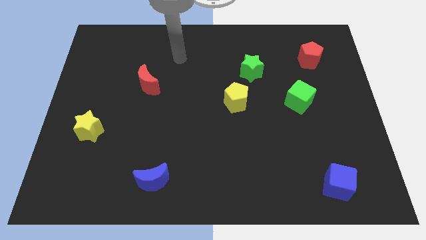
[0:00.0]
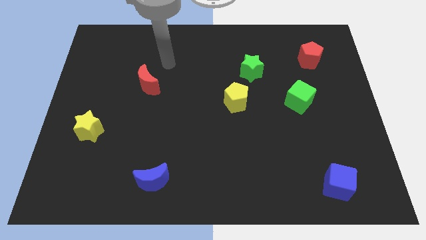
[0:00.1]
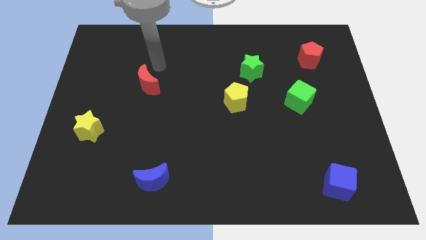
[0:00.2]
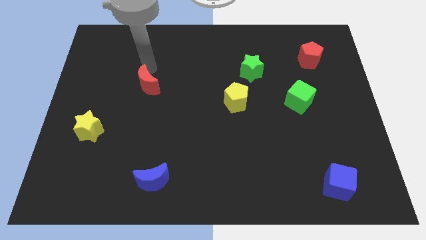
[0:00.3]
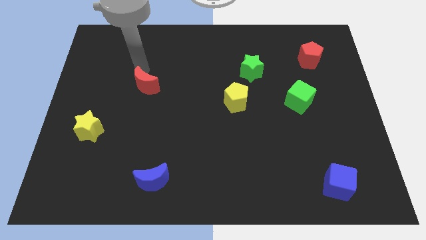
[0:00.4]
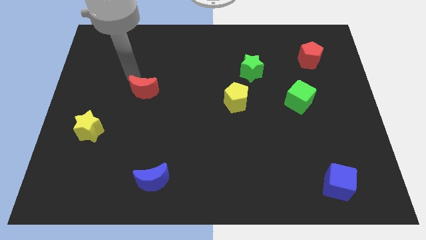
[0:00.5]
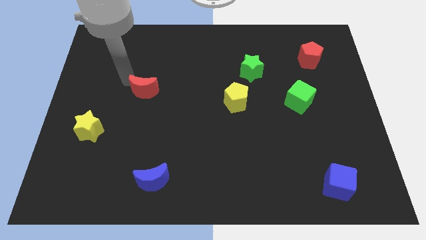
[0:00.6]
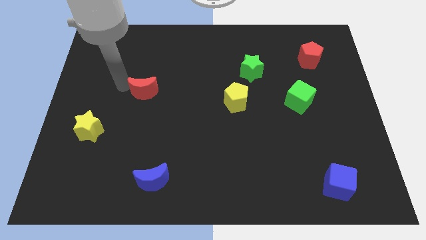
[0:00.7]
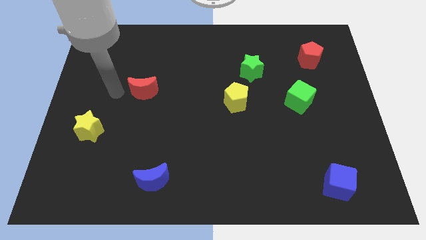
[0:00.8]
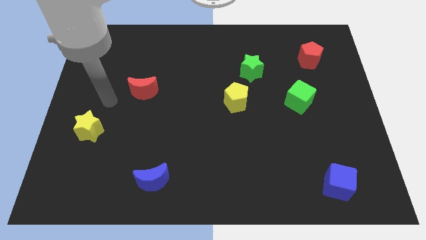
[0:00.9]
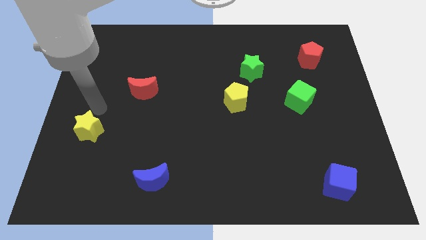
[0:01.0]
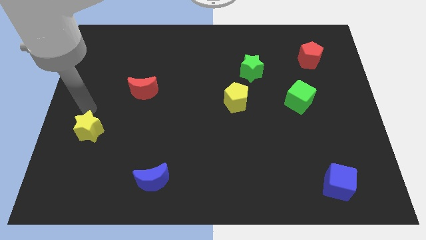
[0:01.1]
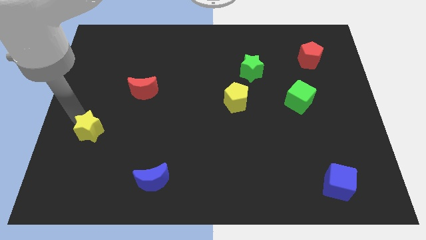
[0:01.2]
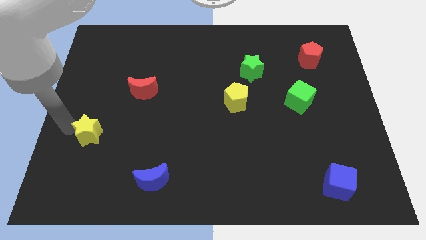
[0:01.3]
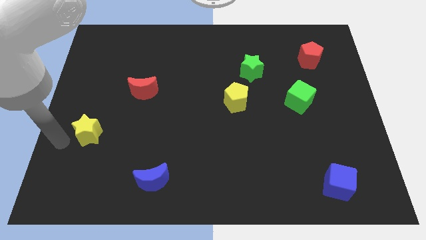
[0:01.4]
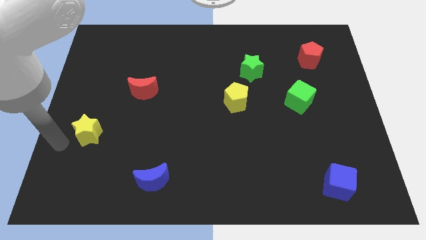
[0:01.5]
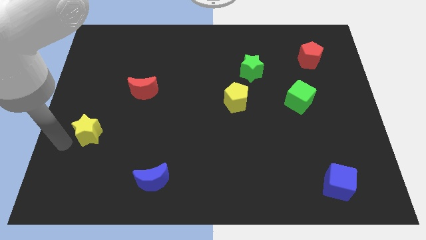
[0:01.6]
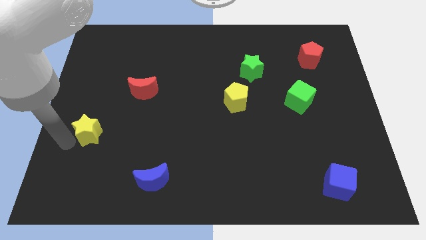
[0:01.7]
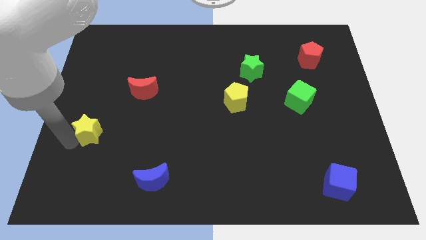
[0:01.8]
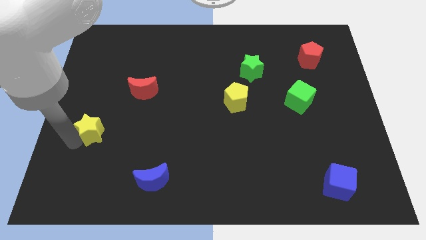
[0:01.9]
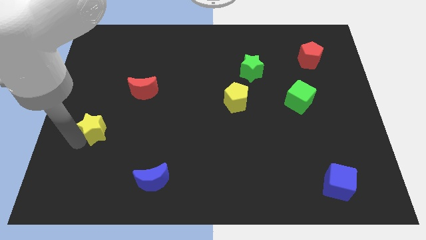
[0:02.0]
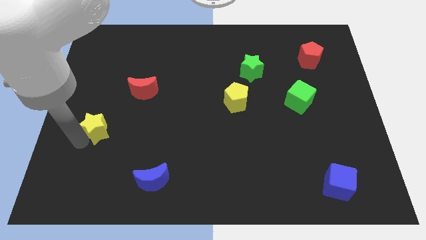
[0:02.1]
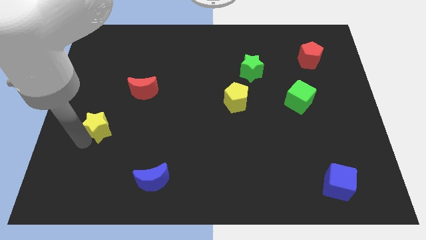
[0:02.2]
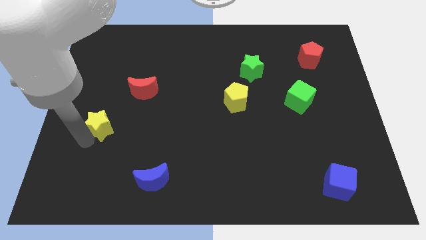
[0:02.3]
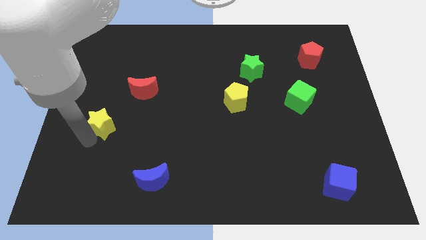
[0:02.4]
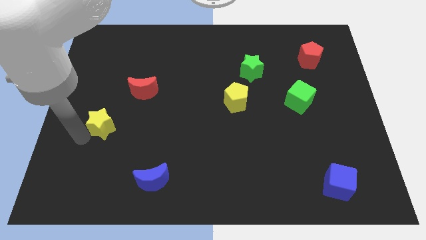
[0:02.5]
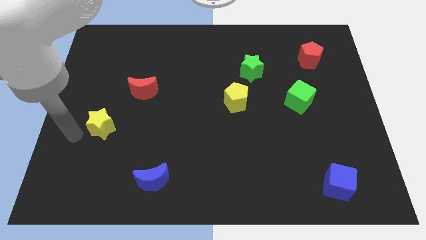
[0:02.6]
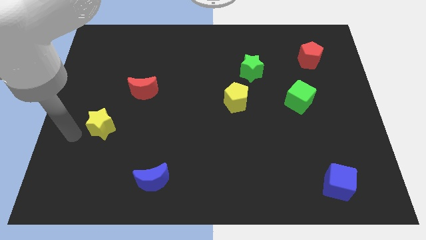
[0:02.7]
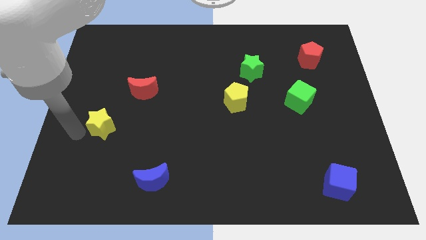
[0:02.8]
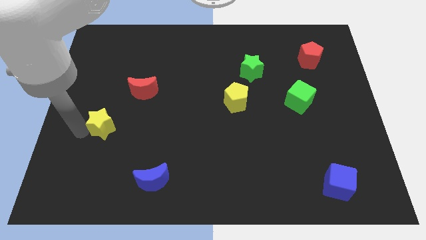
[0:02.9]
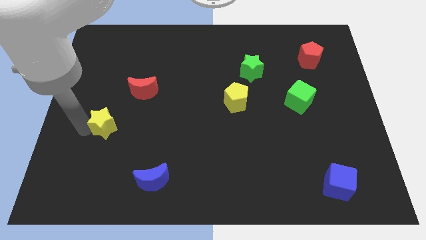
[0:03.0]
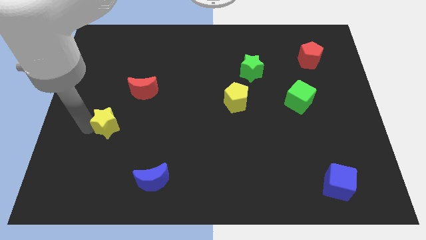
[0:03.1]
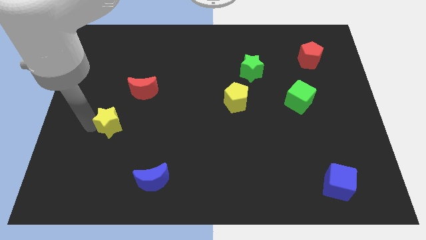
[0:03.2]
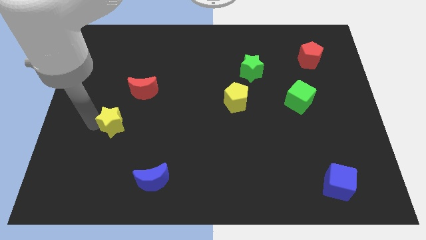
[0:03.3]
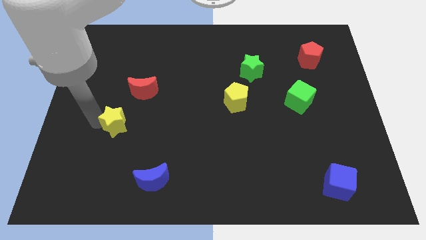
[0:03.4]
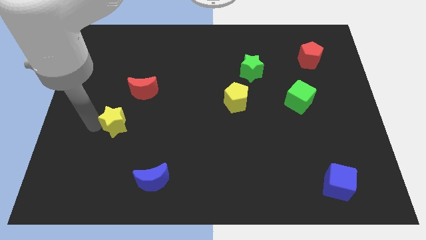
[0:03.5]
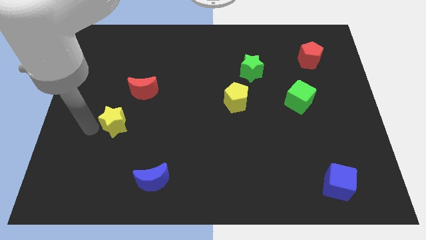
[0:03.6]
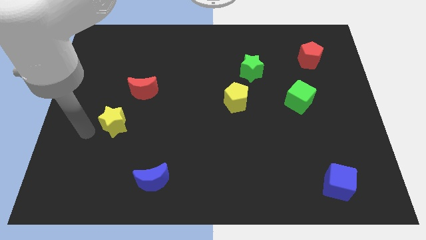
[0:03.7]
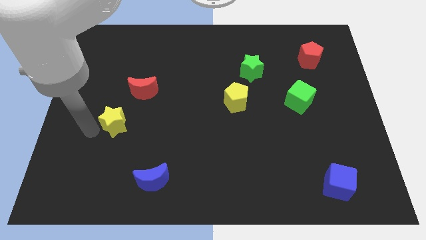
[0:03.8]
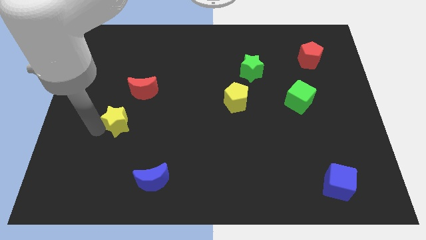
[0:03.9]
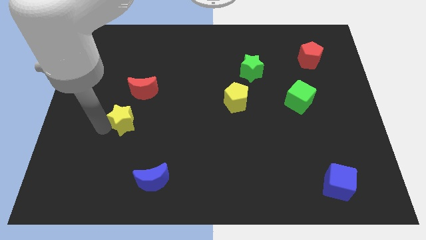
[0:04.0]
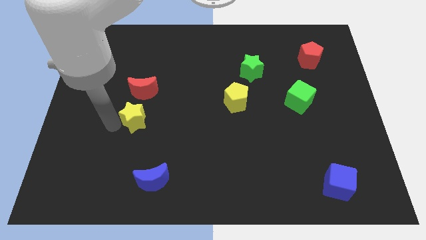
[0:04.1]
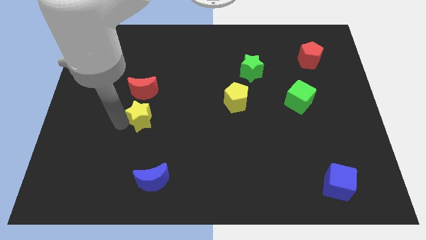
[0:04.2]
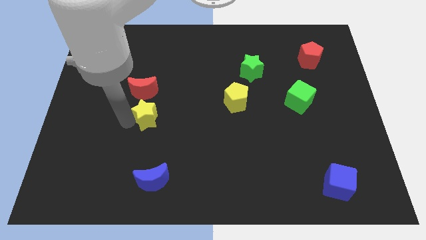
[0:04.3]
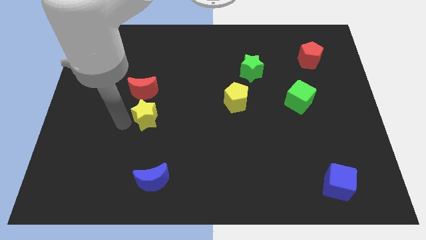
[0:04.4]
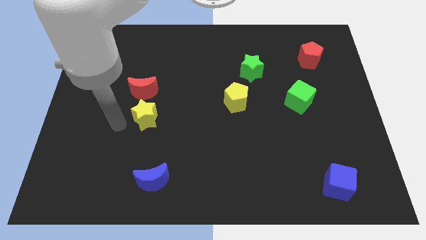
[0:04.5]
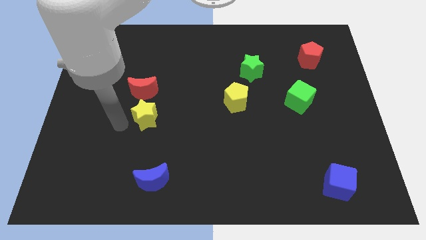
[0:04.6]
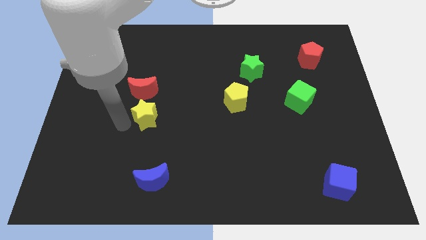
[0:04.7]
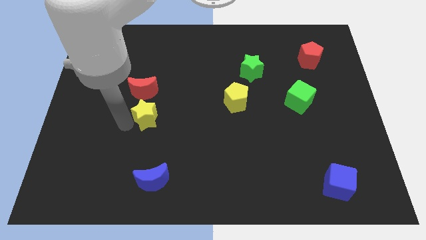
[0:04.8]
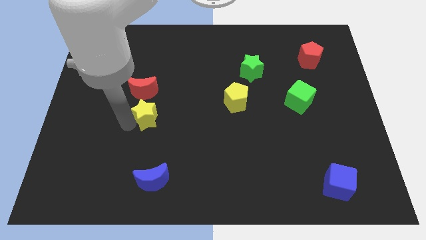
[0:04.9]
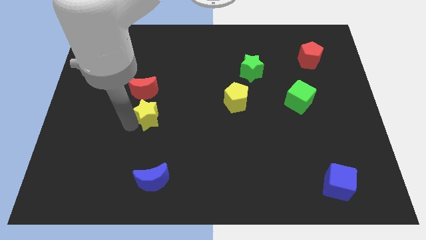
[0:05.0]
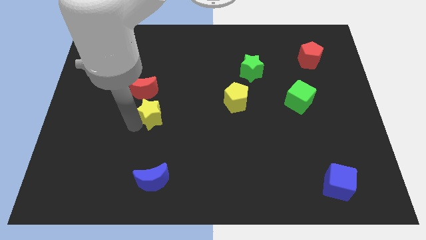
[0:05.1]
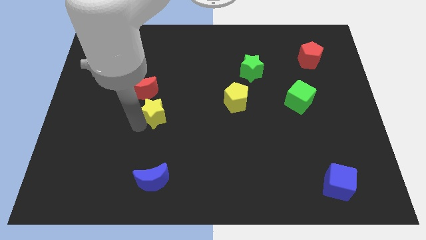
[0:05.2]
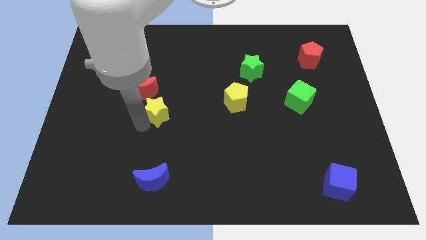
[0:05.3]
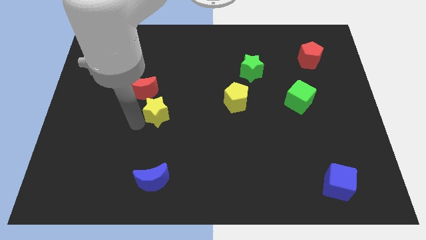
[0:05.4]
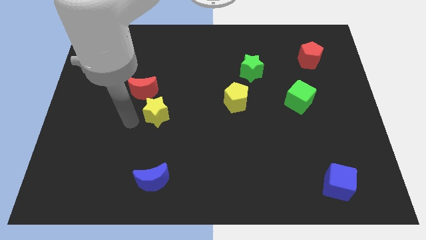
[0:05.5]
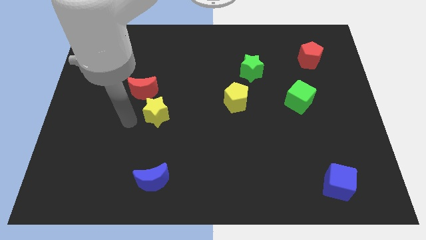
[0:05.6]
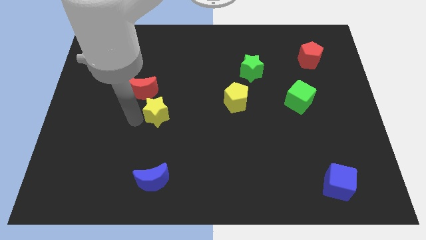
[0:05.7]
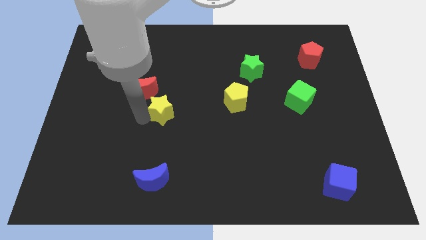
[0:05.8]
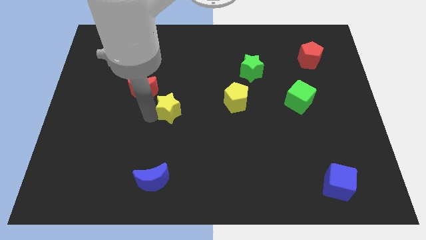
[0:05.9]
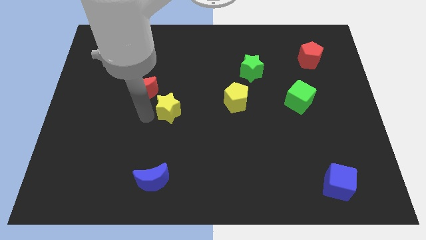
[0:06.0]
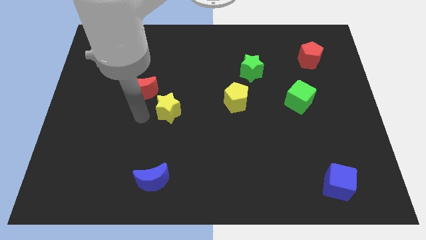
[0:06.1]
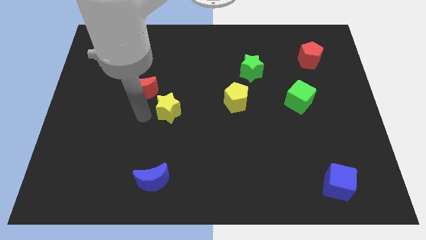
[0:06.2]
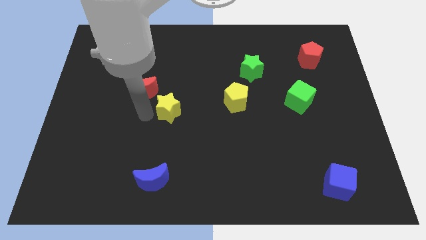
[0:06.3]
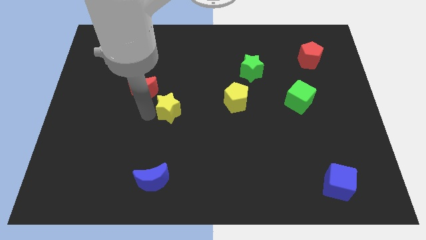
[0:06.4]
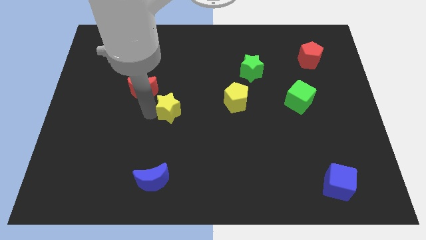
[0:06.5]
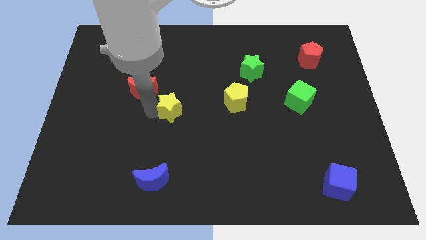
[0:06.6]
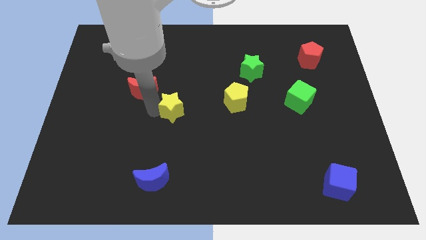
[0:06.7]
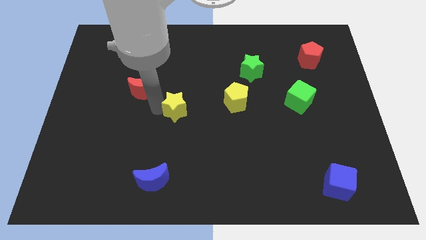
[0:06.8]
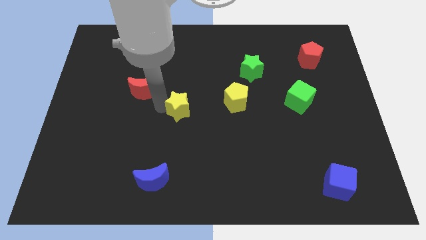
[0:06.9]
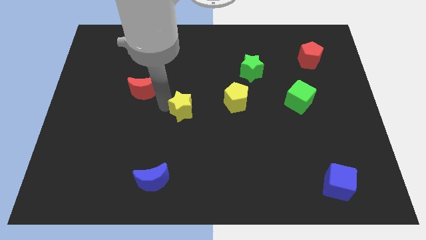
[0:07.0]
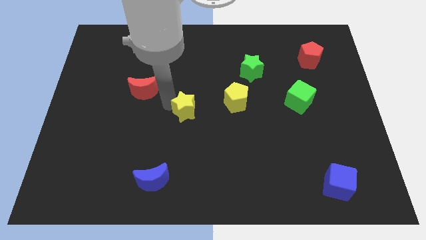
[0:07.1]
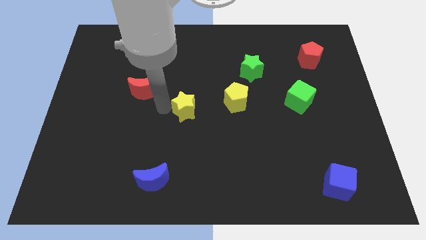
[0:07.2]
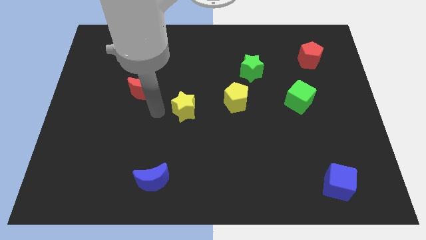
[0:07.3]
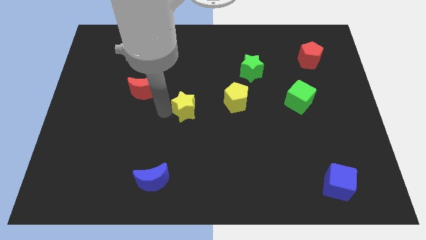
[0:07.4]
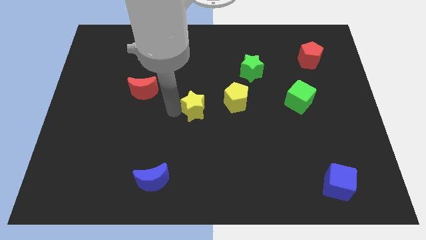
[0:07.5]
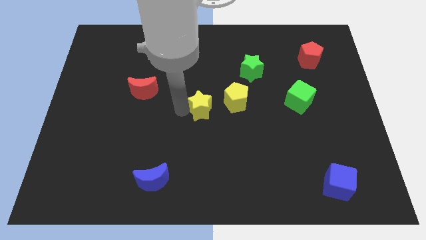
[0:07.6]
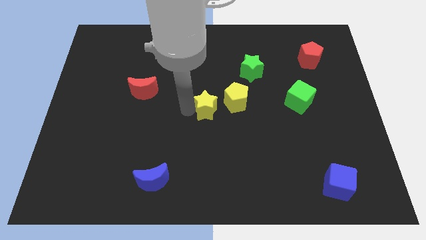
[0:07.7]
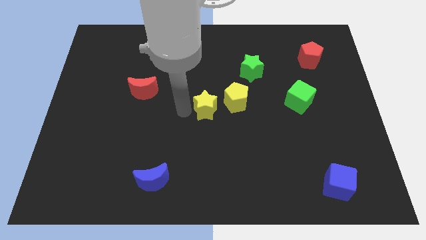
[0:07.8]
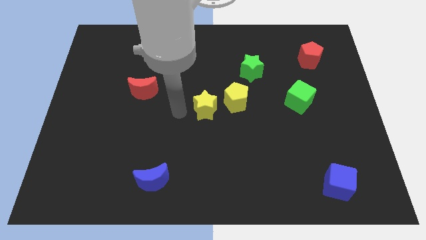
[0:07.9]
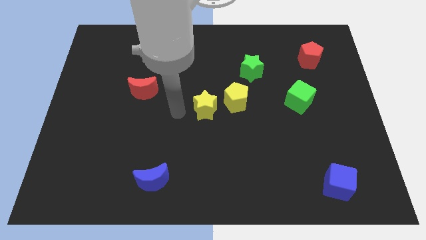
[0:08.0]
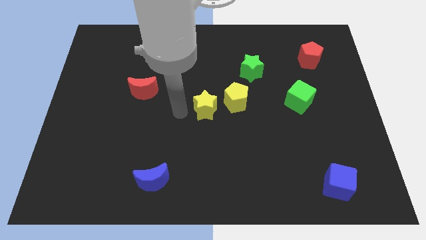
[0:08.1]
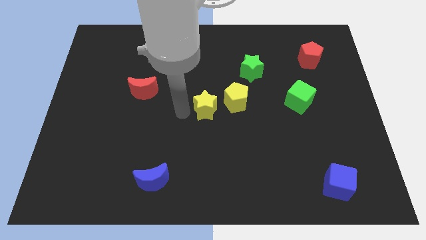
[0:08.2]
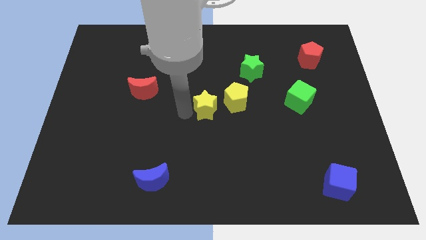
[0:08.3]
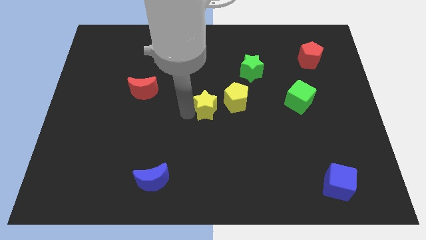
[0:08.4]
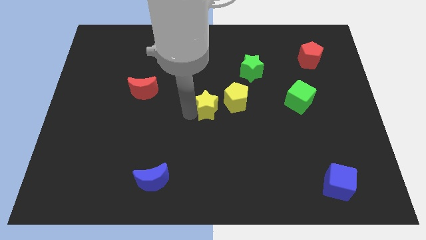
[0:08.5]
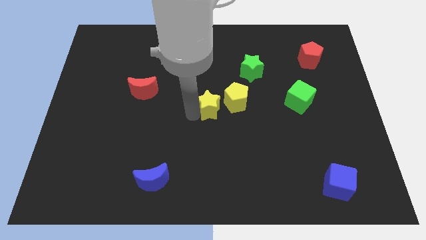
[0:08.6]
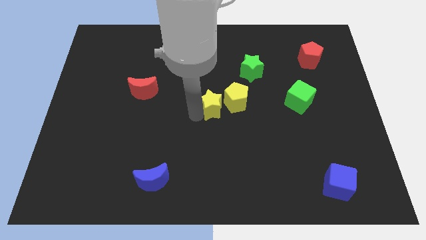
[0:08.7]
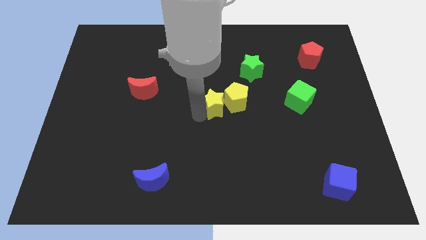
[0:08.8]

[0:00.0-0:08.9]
push the yellow star close to the yellow pentagon
